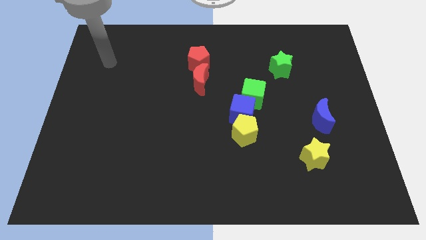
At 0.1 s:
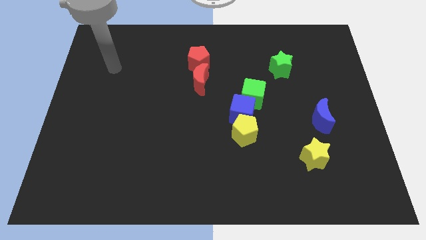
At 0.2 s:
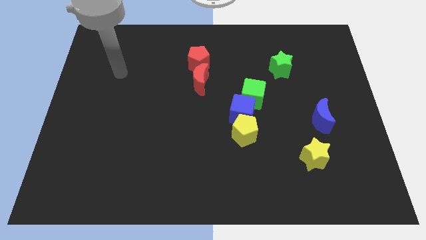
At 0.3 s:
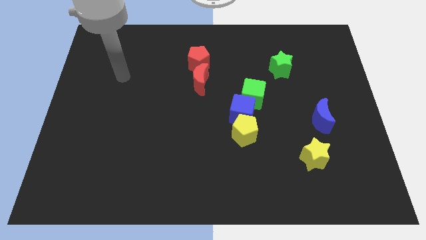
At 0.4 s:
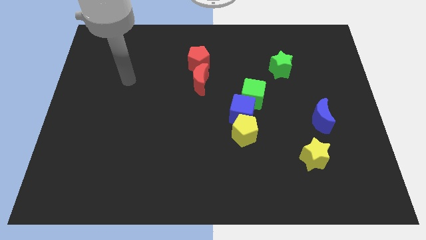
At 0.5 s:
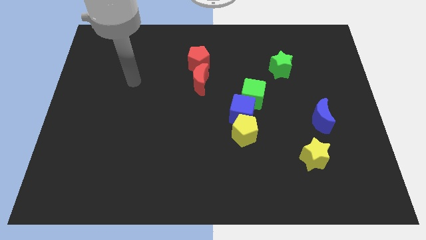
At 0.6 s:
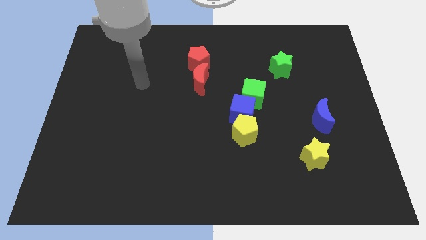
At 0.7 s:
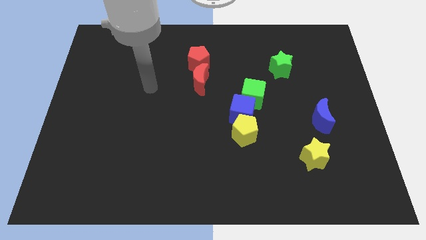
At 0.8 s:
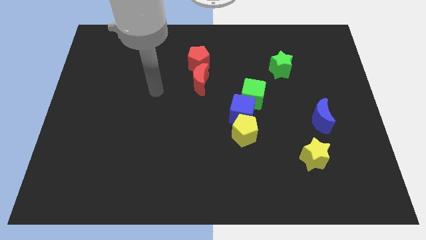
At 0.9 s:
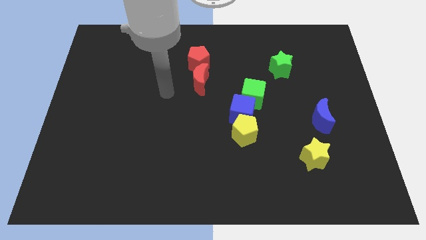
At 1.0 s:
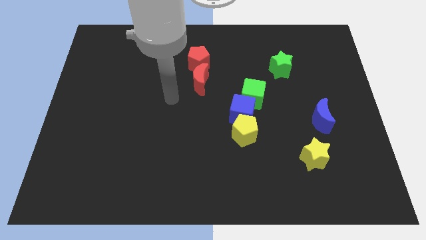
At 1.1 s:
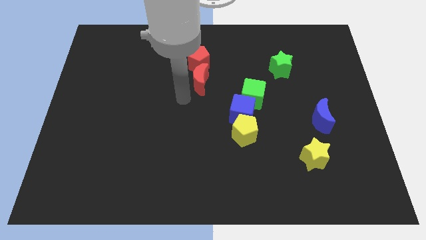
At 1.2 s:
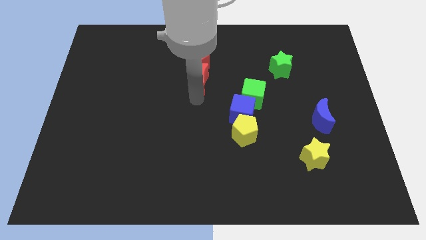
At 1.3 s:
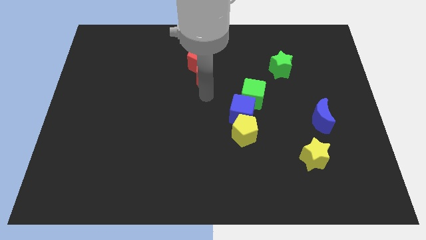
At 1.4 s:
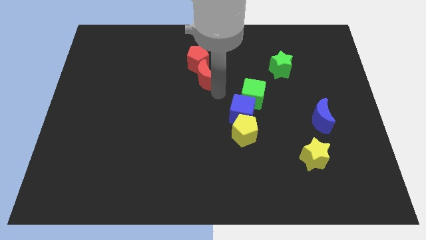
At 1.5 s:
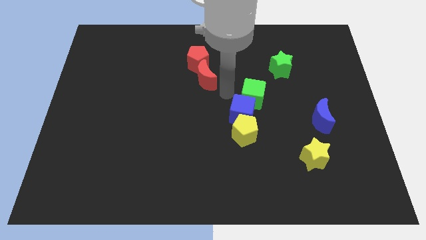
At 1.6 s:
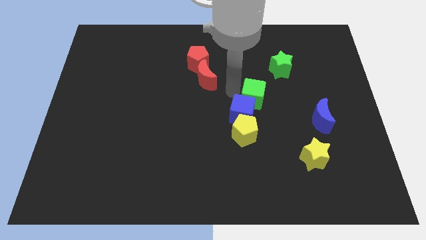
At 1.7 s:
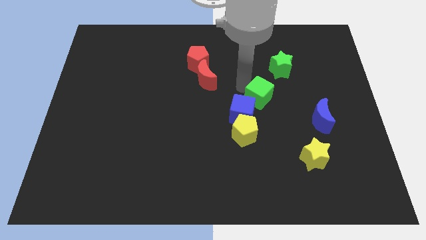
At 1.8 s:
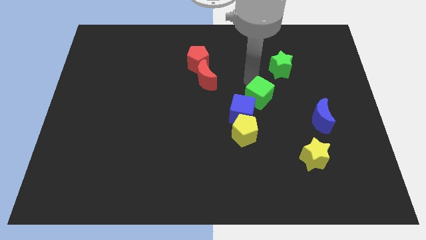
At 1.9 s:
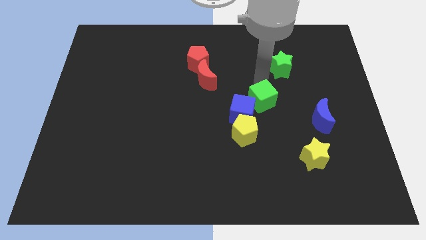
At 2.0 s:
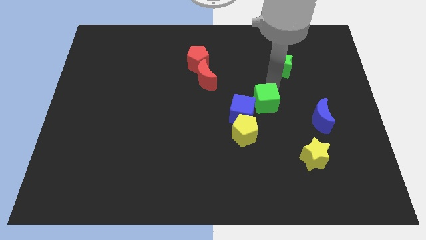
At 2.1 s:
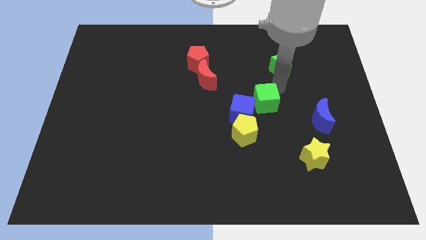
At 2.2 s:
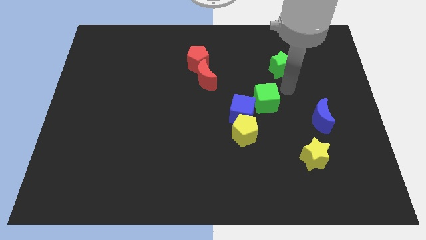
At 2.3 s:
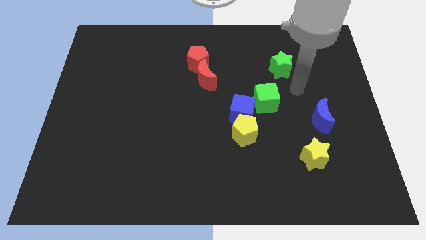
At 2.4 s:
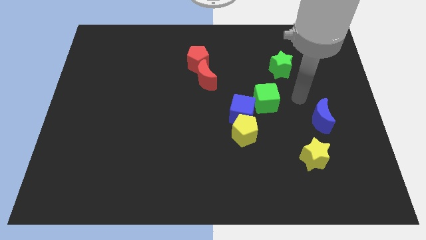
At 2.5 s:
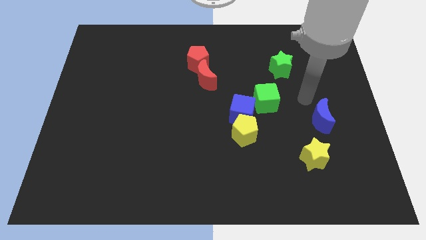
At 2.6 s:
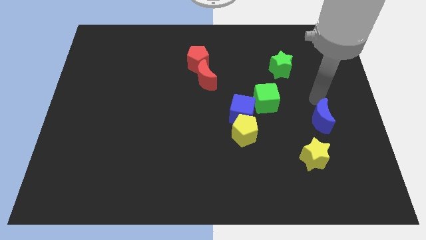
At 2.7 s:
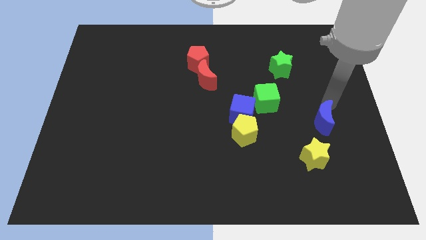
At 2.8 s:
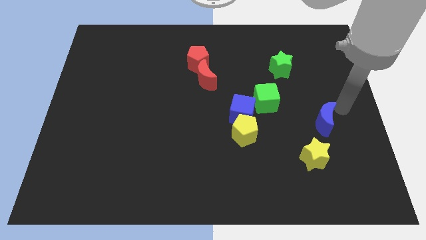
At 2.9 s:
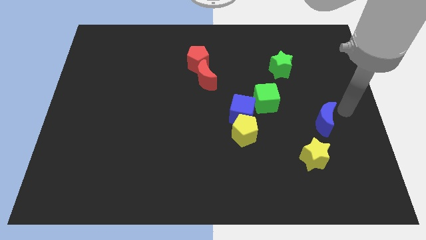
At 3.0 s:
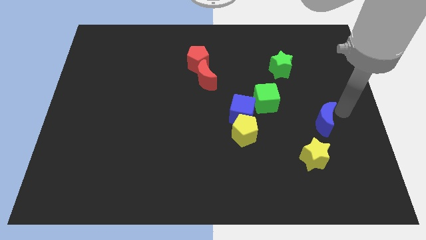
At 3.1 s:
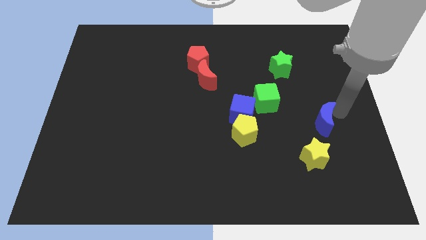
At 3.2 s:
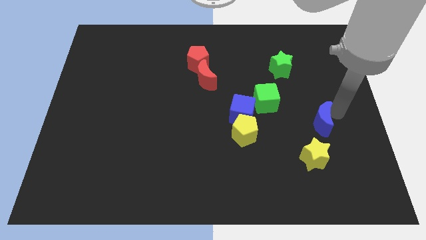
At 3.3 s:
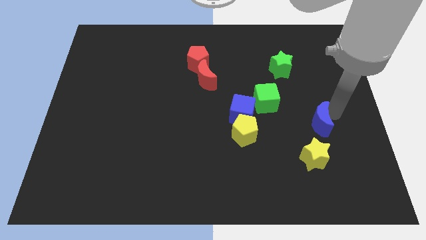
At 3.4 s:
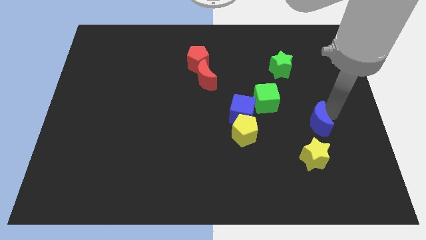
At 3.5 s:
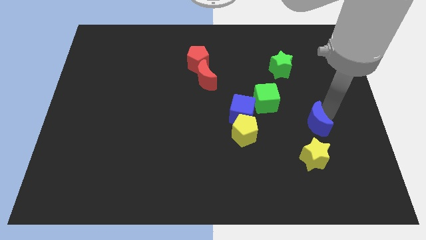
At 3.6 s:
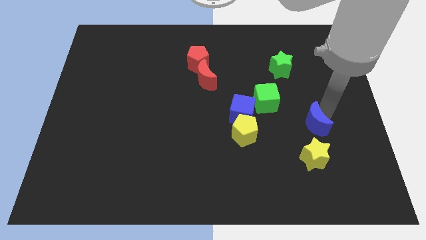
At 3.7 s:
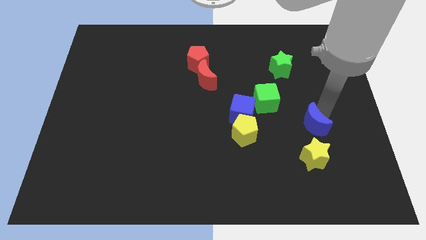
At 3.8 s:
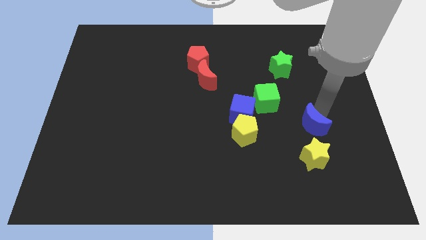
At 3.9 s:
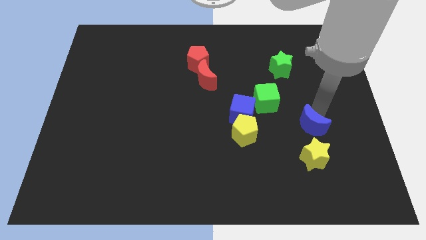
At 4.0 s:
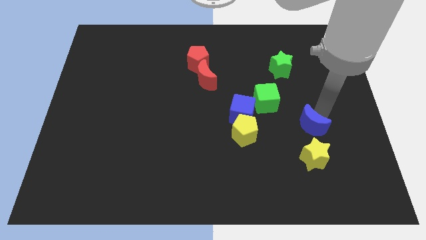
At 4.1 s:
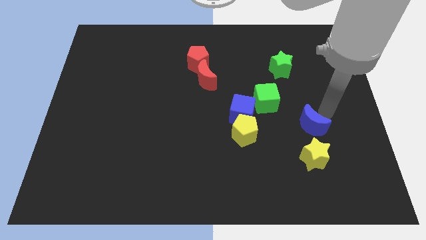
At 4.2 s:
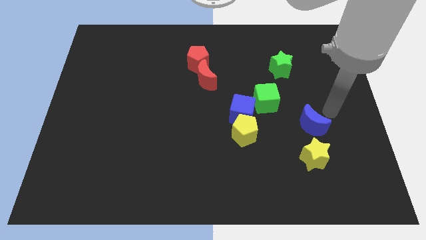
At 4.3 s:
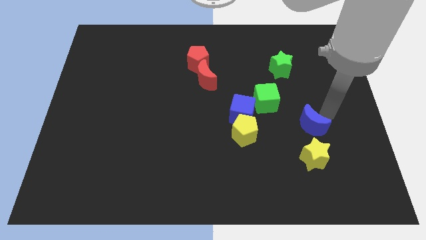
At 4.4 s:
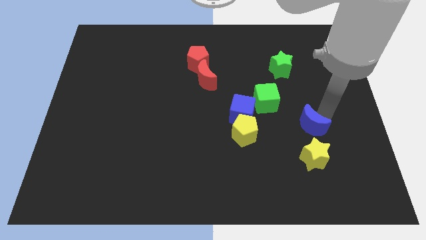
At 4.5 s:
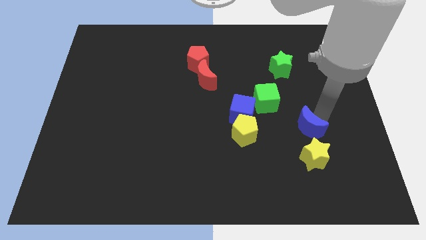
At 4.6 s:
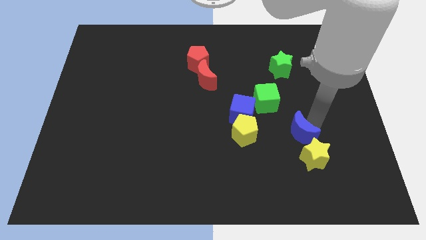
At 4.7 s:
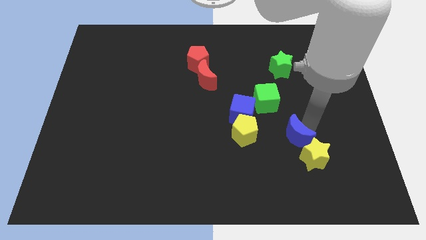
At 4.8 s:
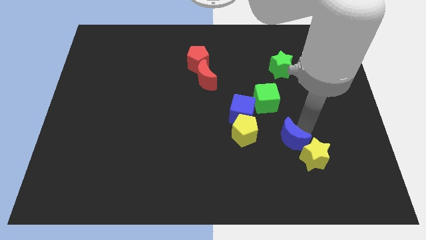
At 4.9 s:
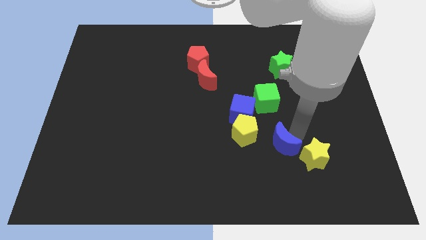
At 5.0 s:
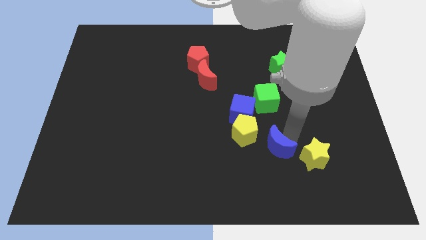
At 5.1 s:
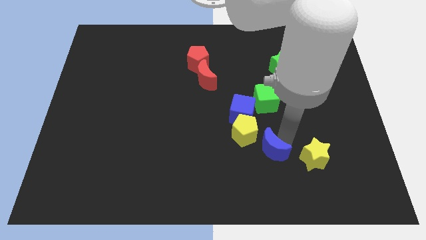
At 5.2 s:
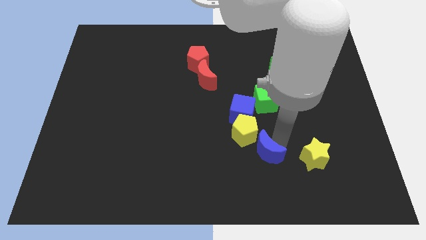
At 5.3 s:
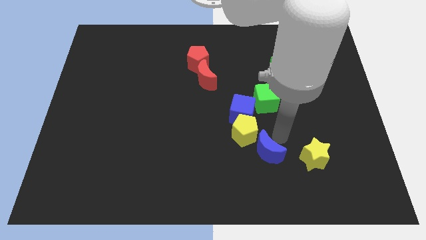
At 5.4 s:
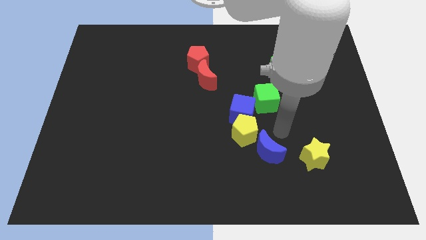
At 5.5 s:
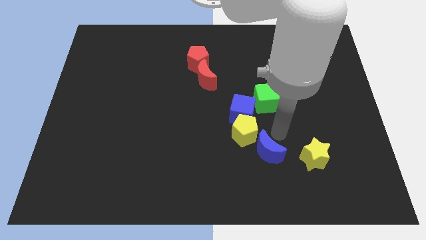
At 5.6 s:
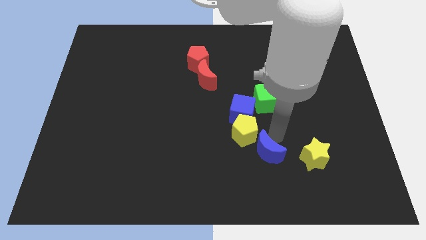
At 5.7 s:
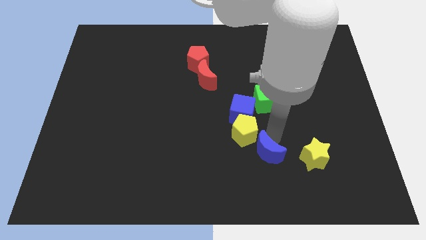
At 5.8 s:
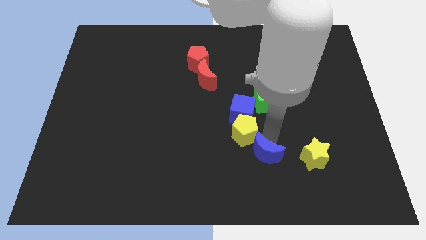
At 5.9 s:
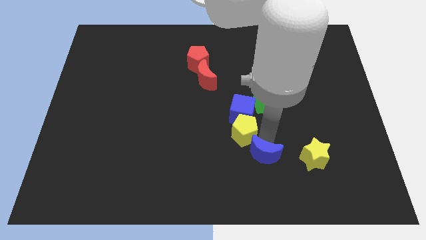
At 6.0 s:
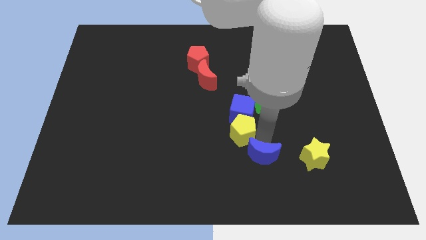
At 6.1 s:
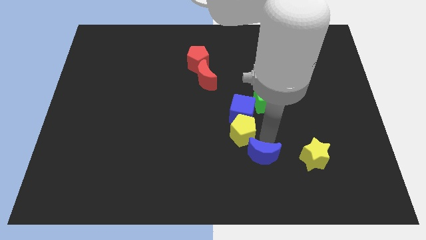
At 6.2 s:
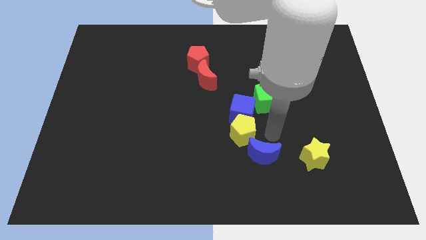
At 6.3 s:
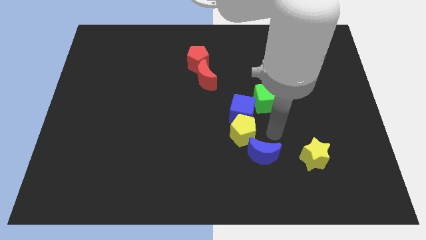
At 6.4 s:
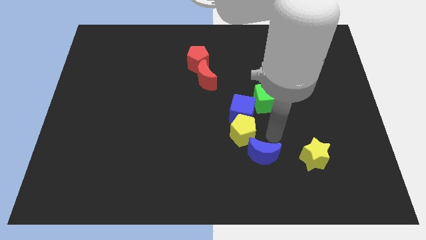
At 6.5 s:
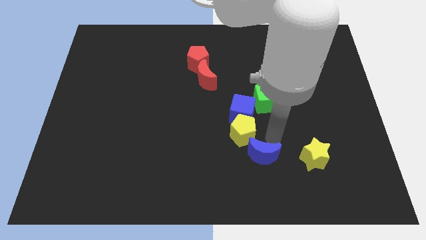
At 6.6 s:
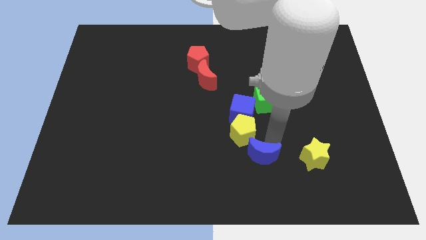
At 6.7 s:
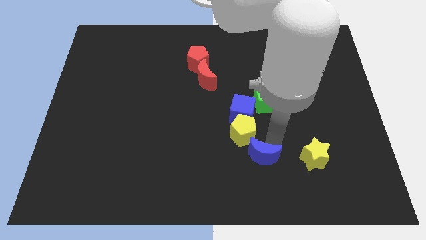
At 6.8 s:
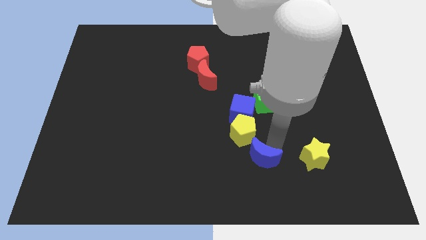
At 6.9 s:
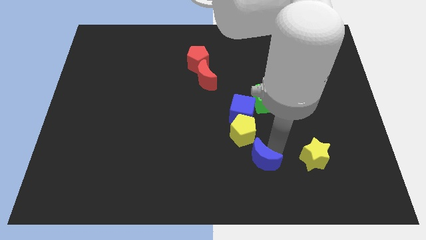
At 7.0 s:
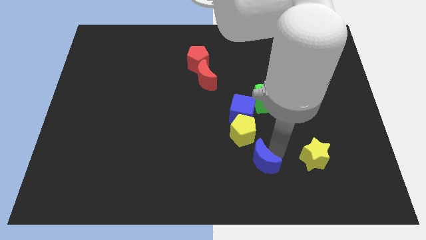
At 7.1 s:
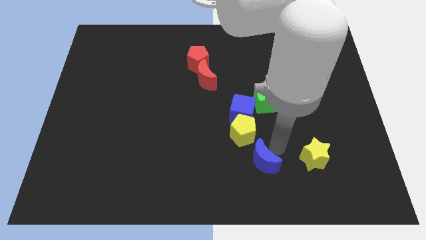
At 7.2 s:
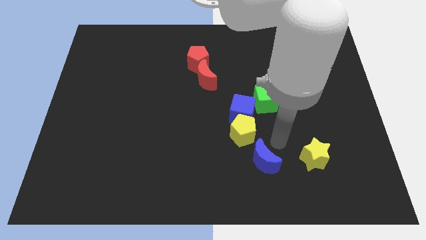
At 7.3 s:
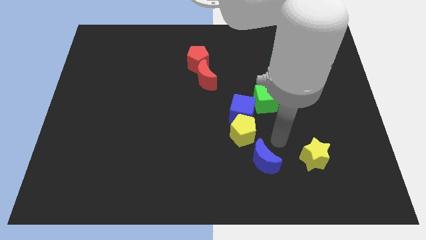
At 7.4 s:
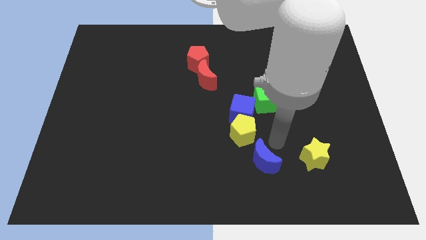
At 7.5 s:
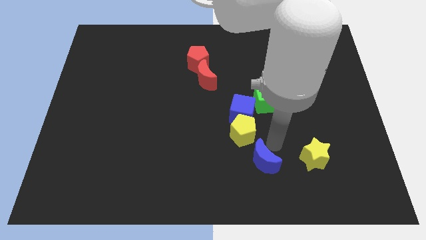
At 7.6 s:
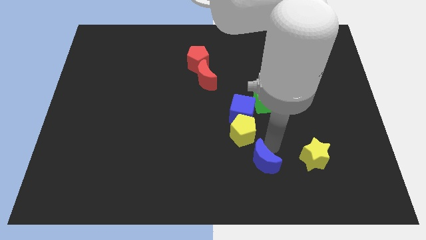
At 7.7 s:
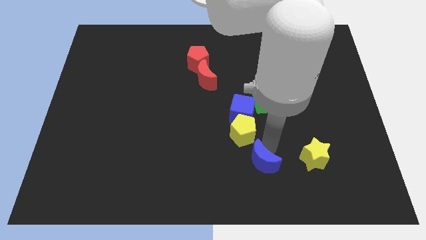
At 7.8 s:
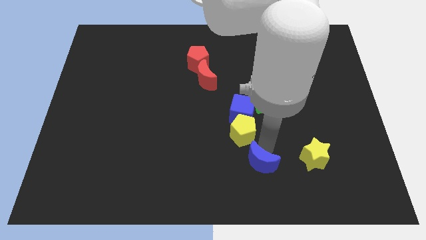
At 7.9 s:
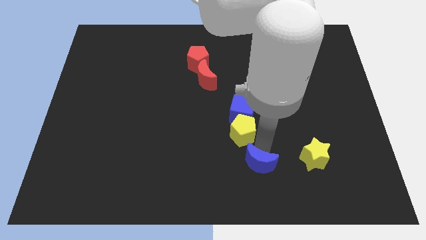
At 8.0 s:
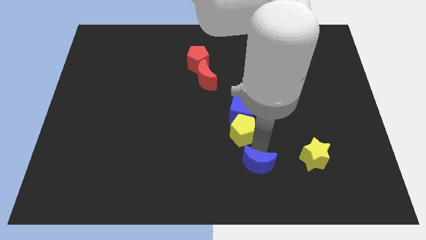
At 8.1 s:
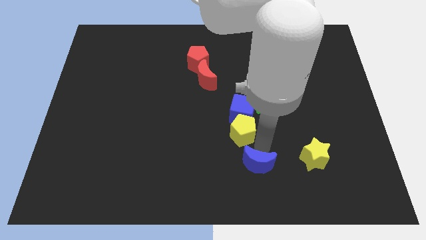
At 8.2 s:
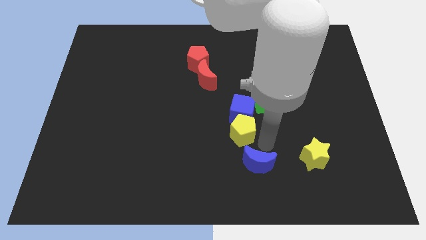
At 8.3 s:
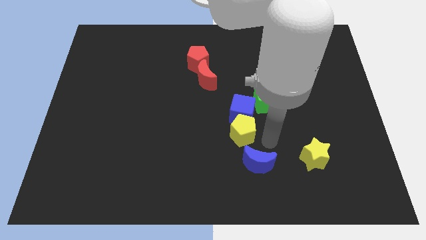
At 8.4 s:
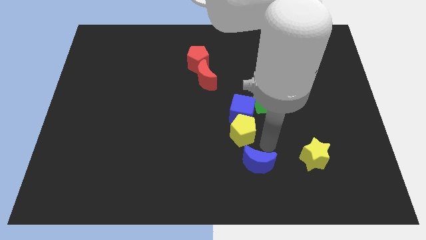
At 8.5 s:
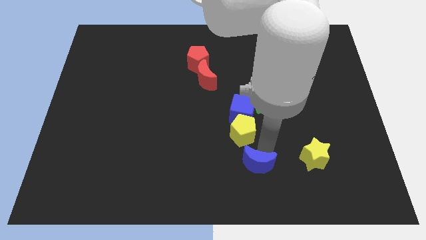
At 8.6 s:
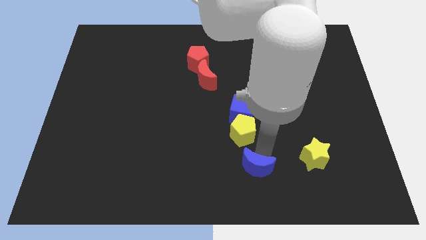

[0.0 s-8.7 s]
push the blue moon to the bottom side
